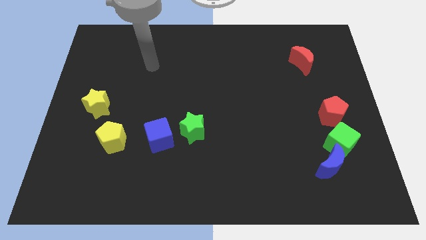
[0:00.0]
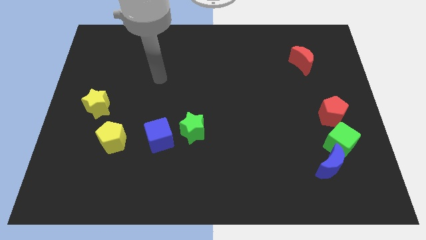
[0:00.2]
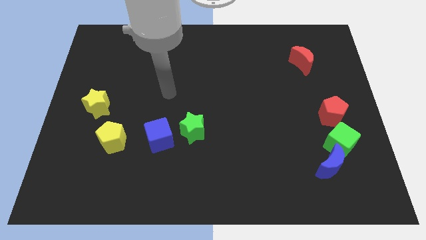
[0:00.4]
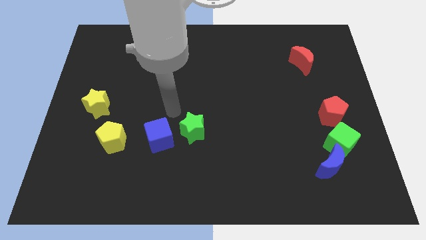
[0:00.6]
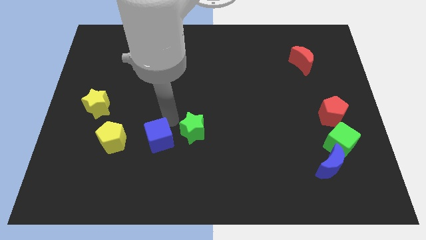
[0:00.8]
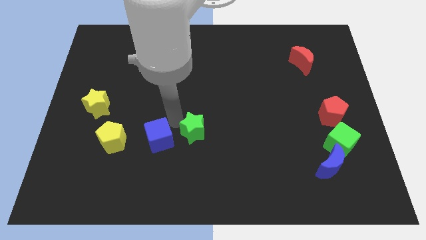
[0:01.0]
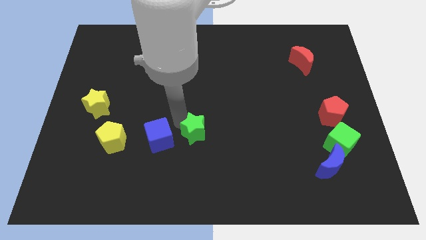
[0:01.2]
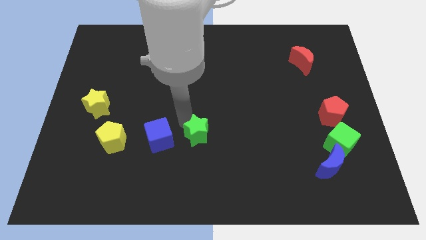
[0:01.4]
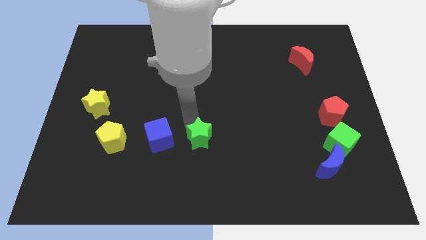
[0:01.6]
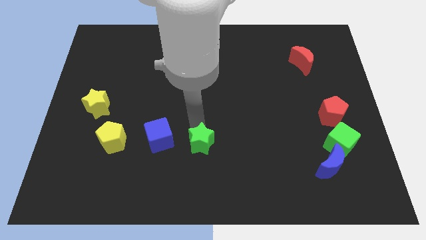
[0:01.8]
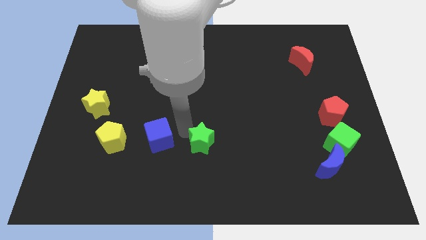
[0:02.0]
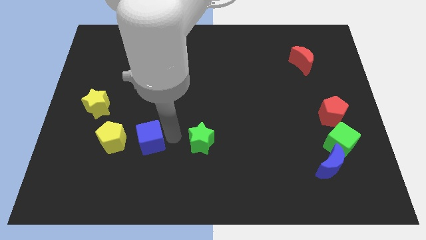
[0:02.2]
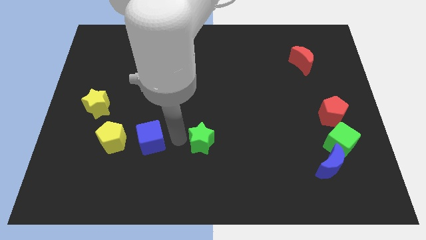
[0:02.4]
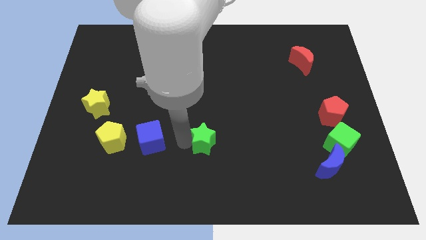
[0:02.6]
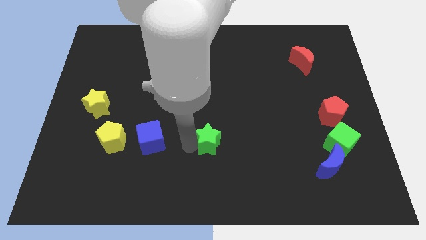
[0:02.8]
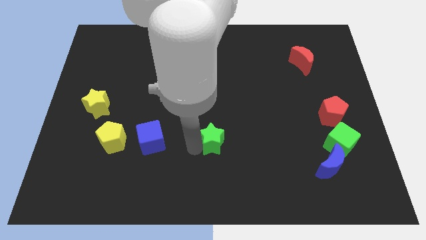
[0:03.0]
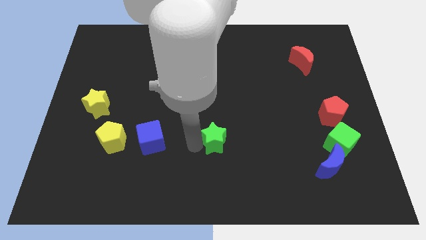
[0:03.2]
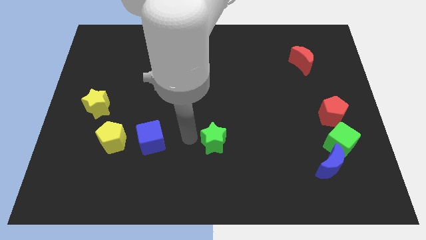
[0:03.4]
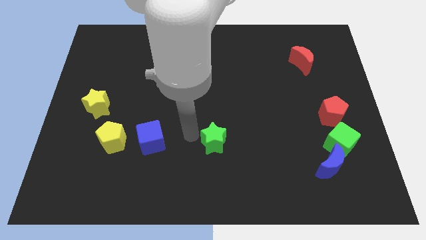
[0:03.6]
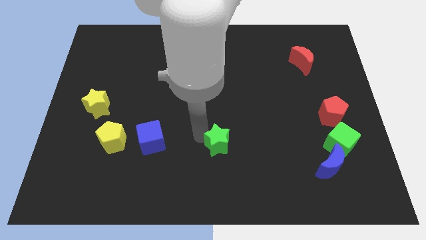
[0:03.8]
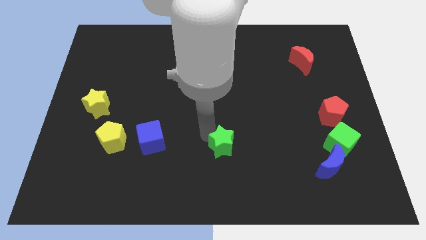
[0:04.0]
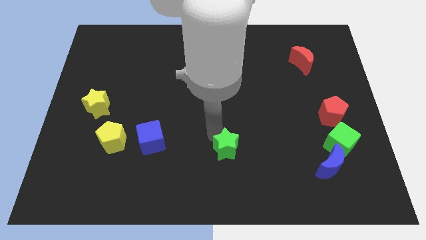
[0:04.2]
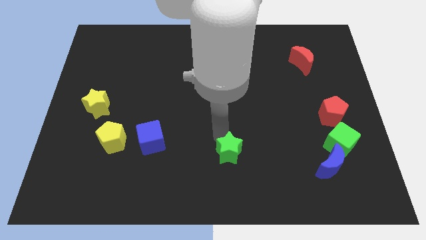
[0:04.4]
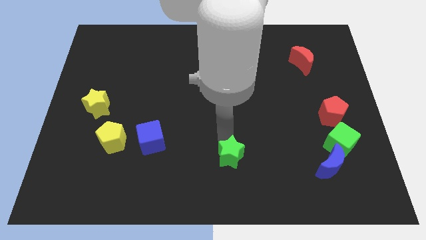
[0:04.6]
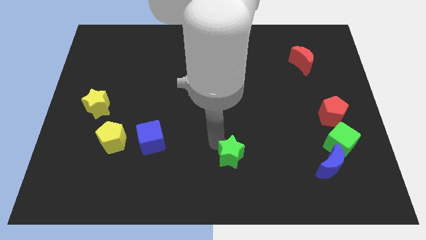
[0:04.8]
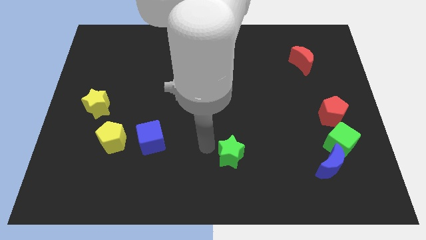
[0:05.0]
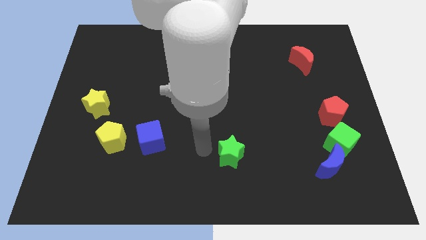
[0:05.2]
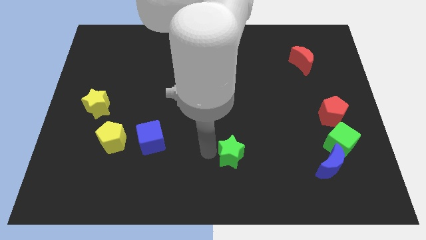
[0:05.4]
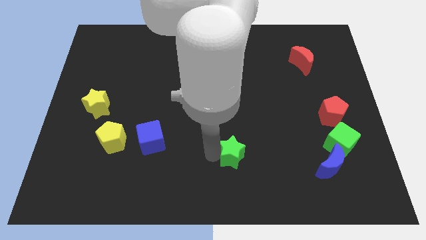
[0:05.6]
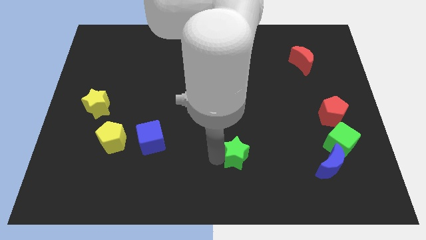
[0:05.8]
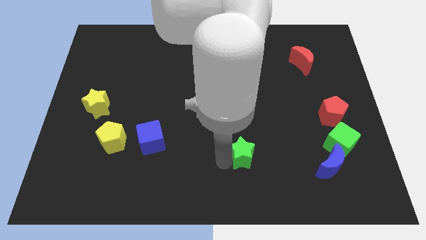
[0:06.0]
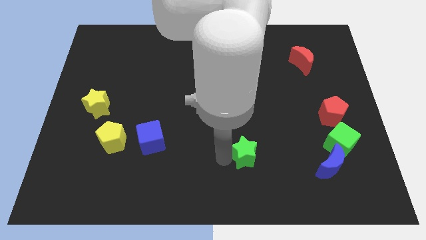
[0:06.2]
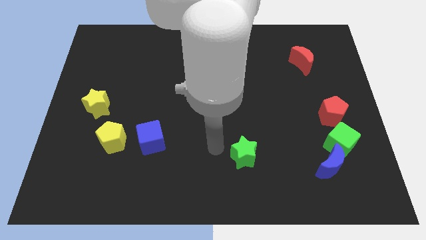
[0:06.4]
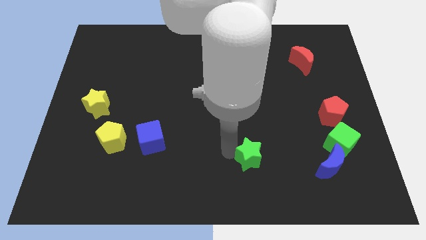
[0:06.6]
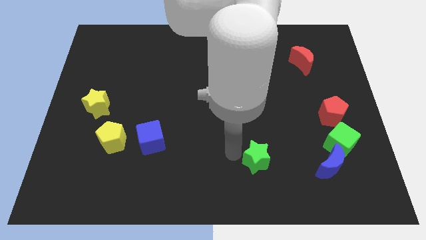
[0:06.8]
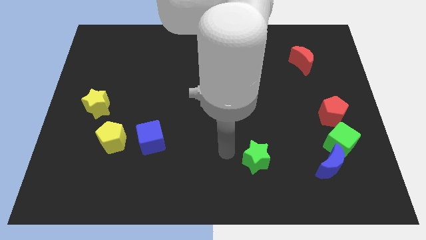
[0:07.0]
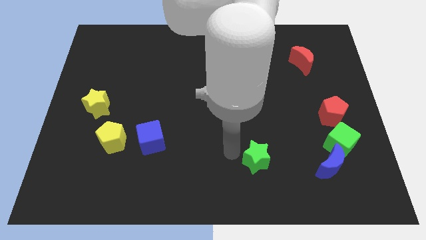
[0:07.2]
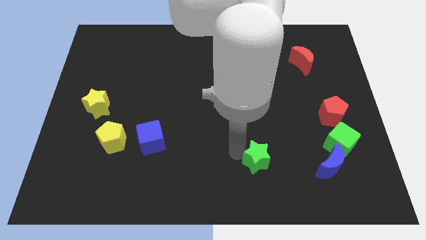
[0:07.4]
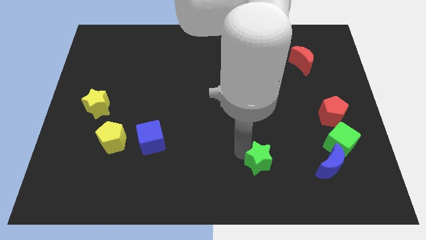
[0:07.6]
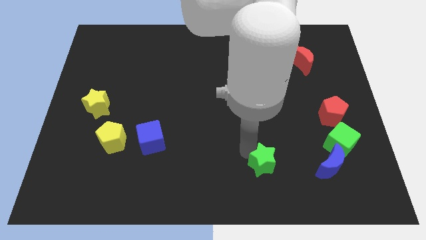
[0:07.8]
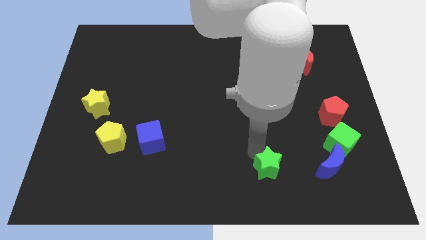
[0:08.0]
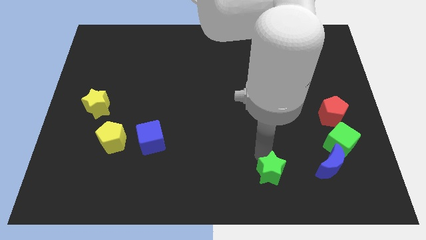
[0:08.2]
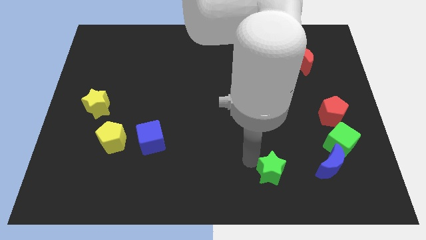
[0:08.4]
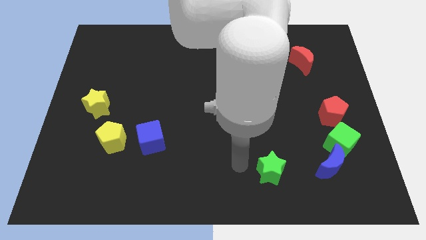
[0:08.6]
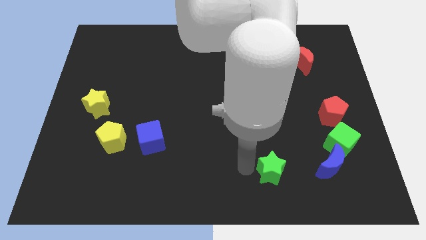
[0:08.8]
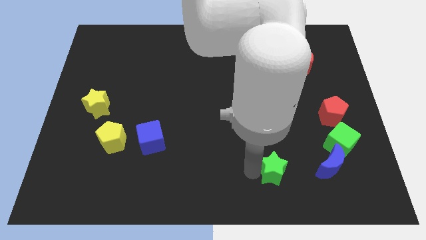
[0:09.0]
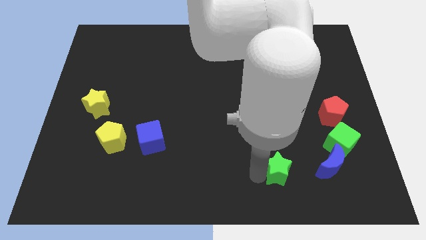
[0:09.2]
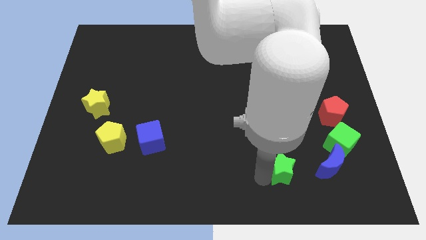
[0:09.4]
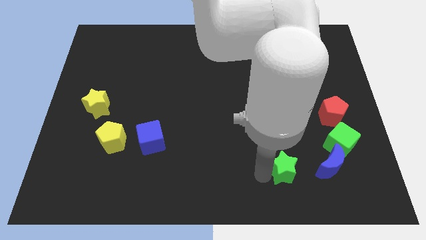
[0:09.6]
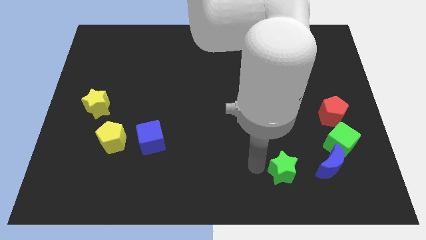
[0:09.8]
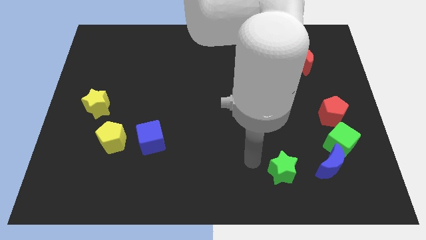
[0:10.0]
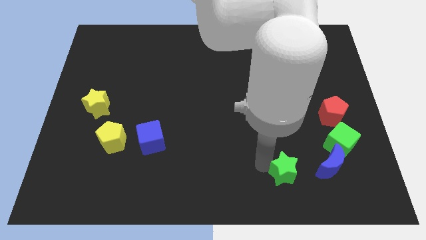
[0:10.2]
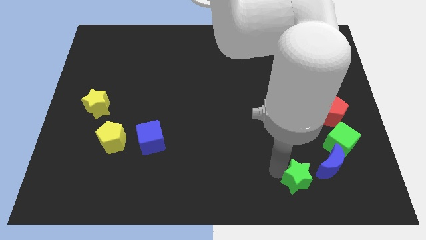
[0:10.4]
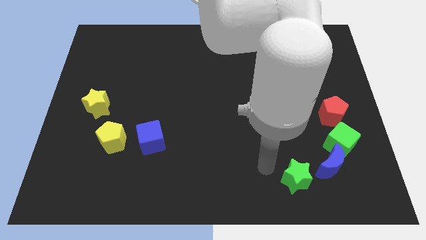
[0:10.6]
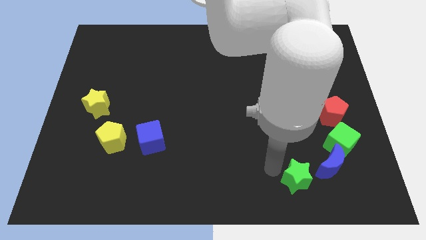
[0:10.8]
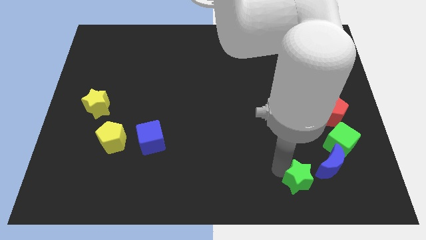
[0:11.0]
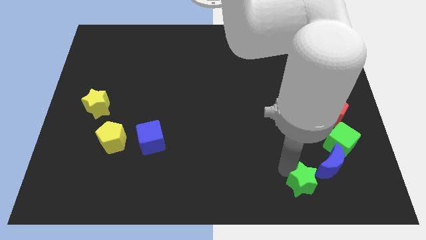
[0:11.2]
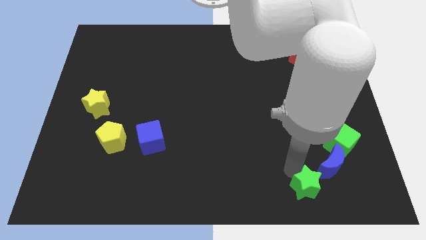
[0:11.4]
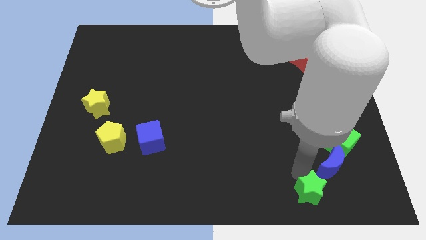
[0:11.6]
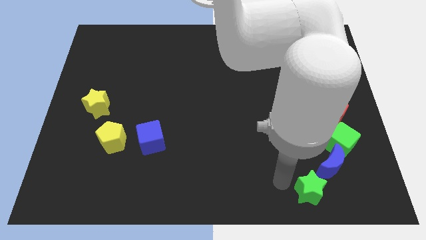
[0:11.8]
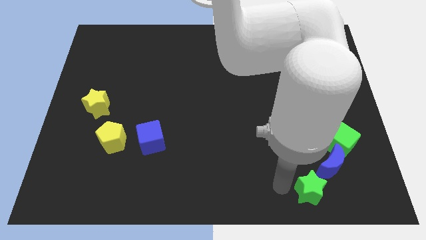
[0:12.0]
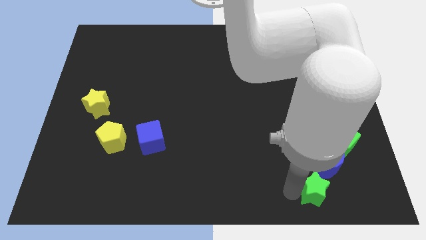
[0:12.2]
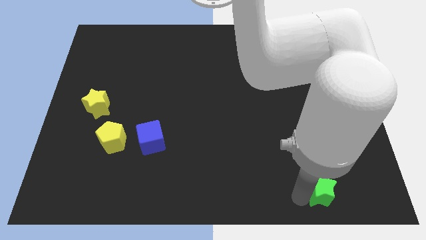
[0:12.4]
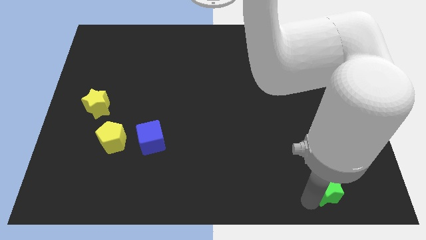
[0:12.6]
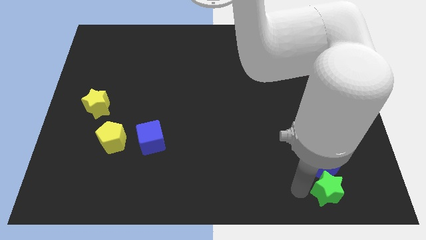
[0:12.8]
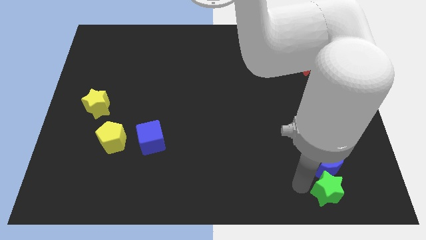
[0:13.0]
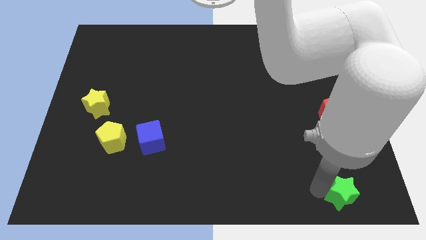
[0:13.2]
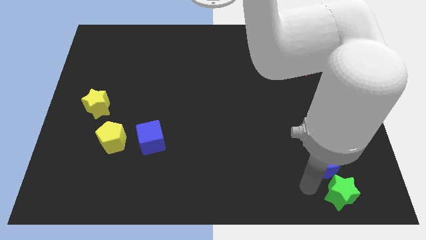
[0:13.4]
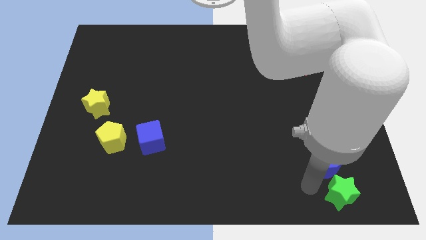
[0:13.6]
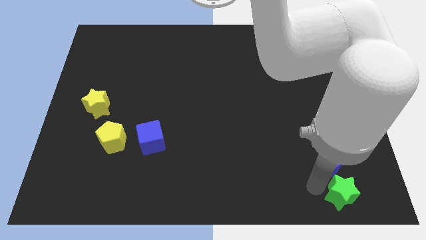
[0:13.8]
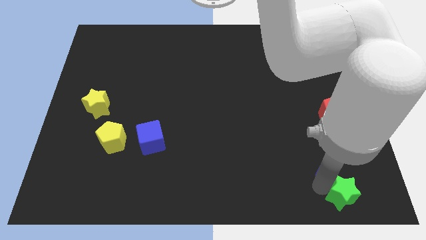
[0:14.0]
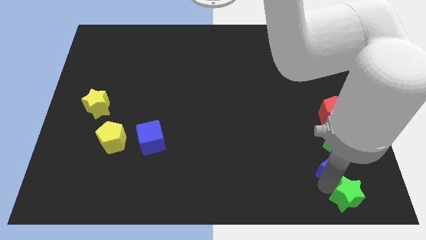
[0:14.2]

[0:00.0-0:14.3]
slide the green star to the bottom right
